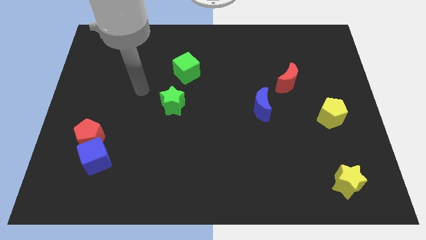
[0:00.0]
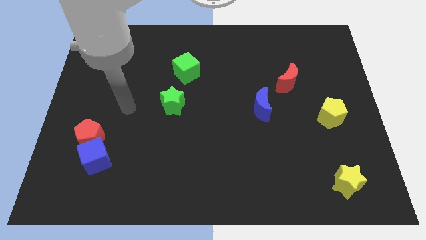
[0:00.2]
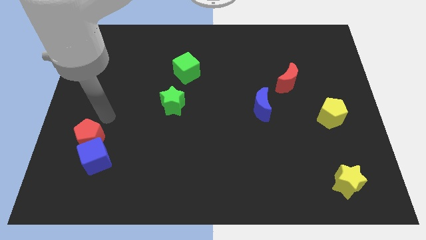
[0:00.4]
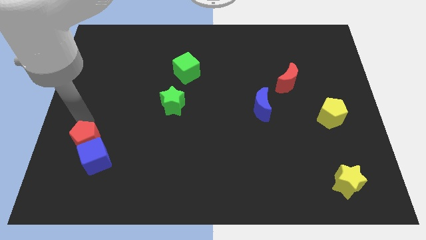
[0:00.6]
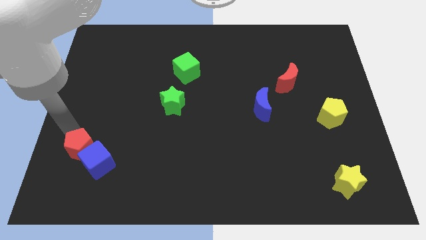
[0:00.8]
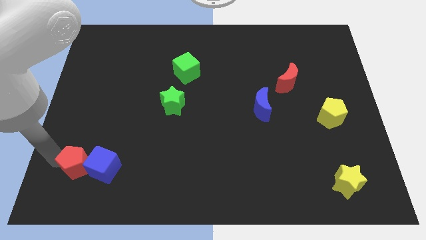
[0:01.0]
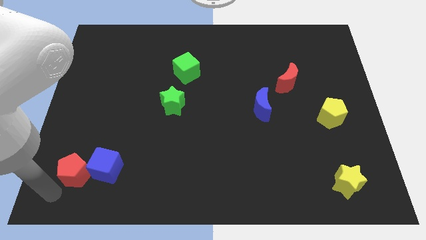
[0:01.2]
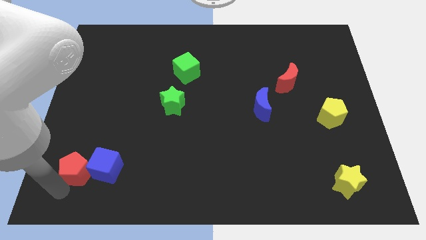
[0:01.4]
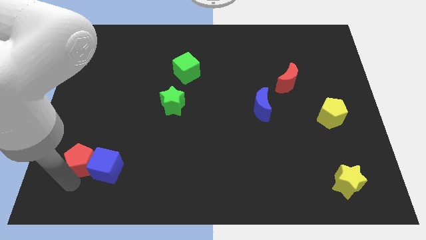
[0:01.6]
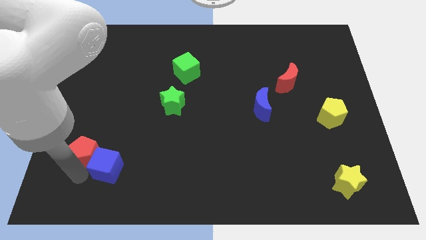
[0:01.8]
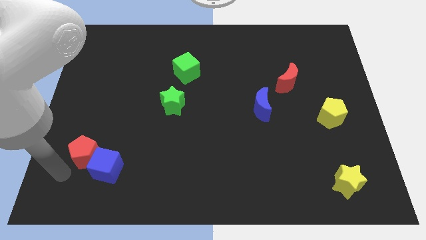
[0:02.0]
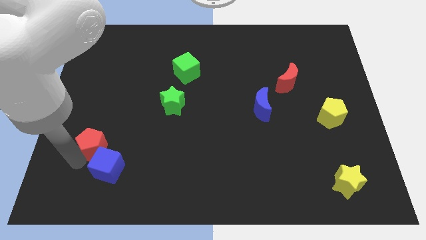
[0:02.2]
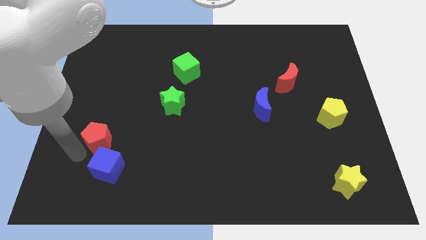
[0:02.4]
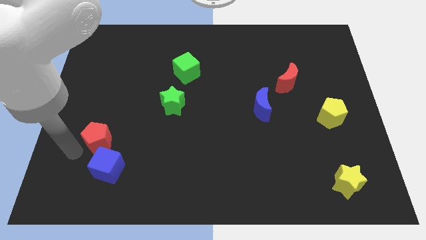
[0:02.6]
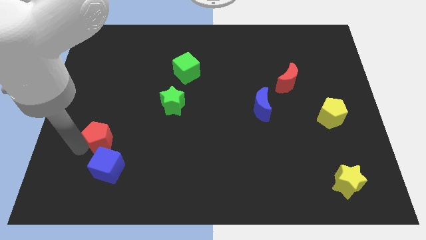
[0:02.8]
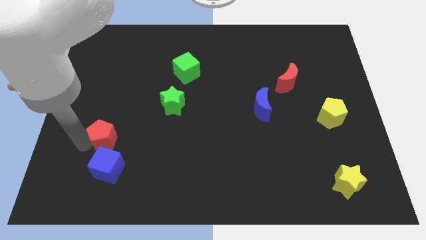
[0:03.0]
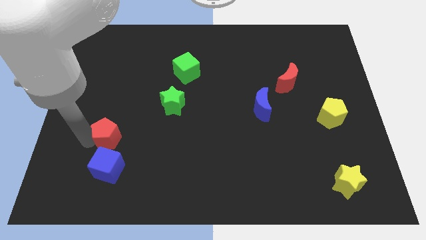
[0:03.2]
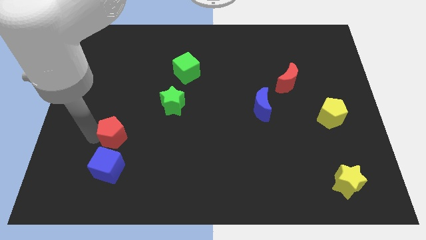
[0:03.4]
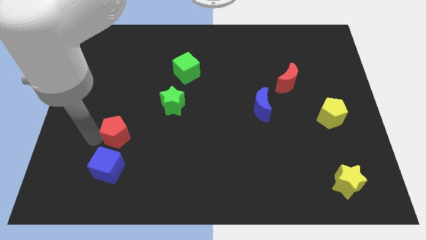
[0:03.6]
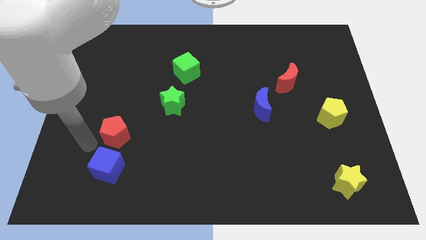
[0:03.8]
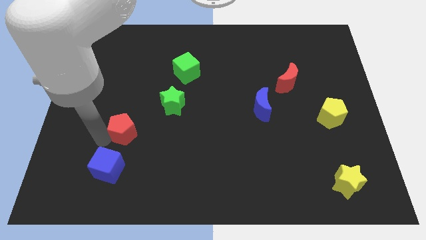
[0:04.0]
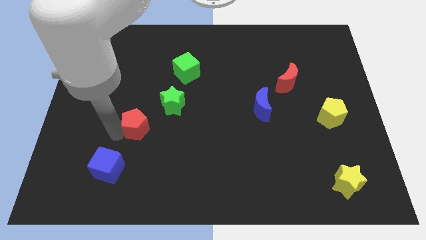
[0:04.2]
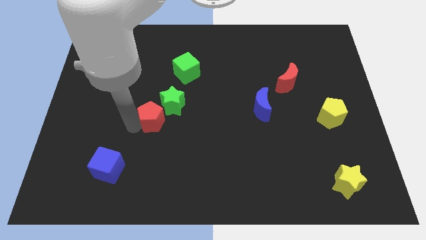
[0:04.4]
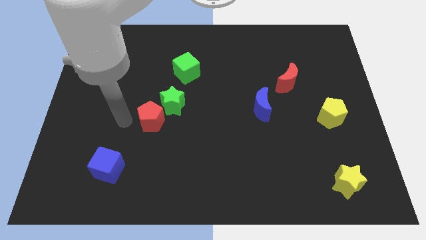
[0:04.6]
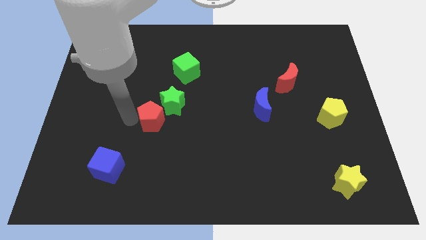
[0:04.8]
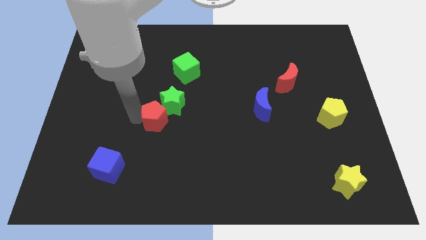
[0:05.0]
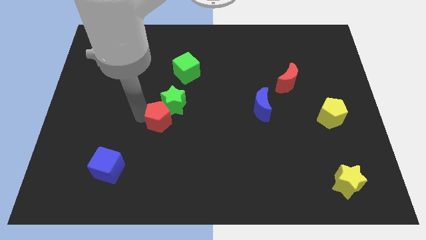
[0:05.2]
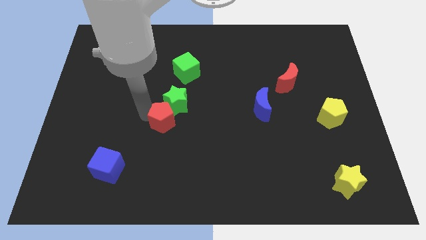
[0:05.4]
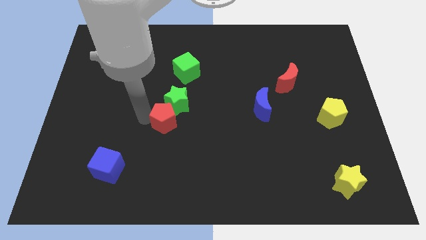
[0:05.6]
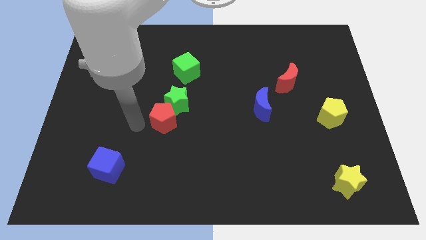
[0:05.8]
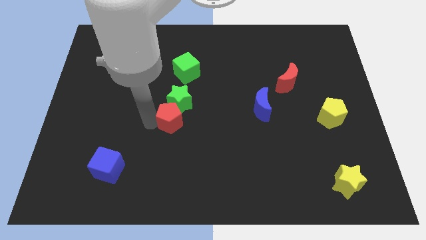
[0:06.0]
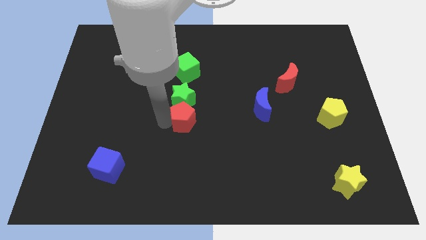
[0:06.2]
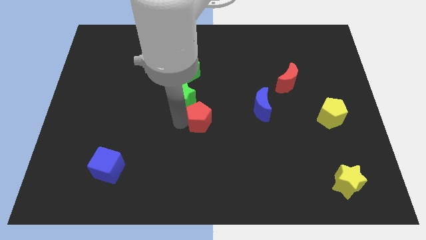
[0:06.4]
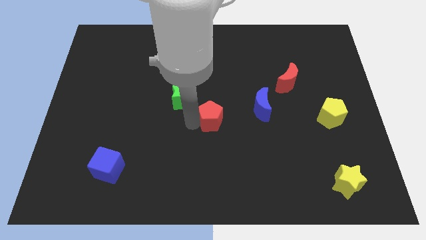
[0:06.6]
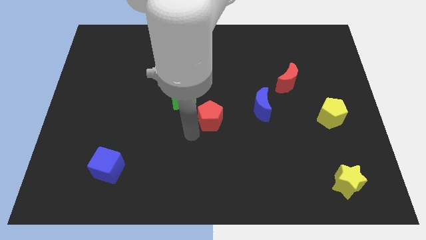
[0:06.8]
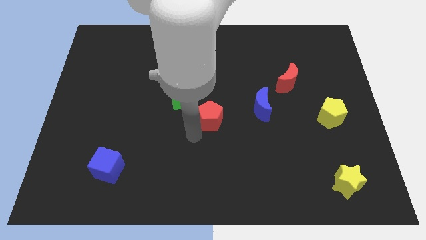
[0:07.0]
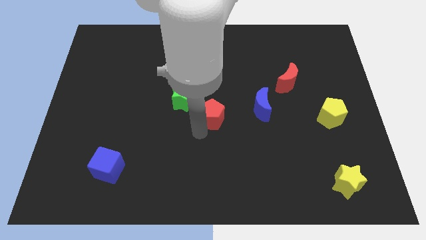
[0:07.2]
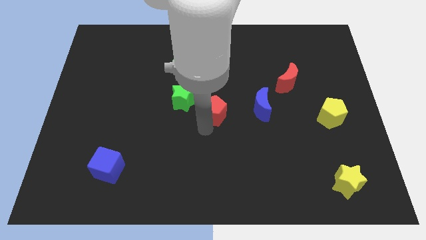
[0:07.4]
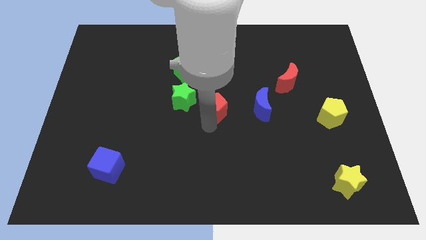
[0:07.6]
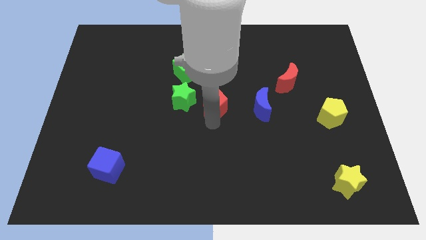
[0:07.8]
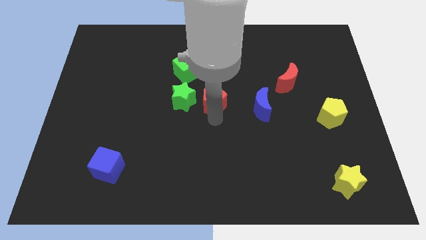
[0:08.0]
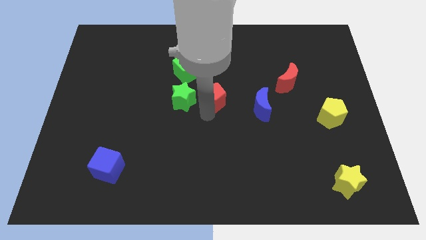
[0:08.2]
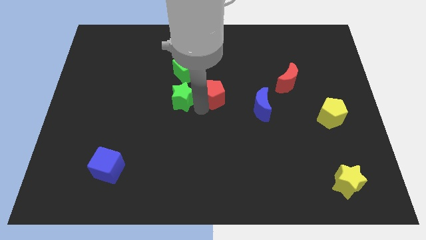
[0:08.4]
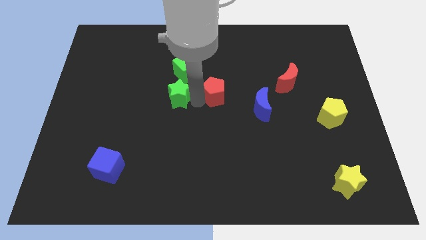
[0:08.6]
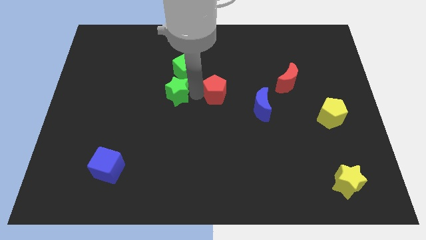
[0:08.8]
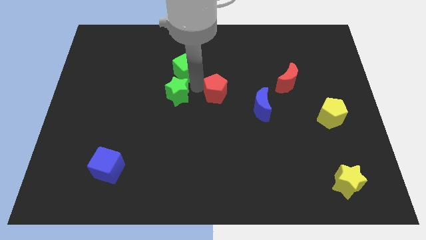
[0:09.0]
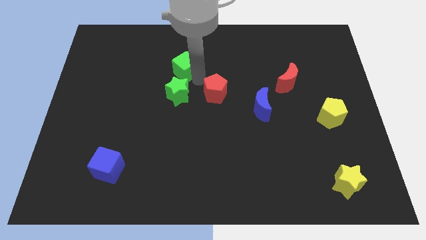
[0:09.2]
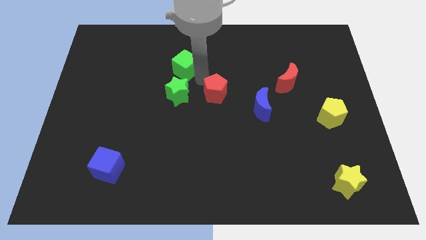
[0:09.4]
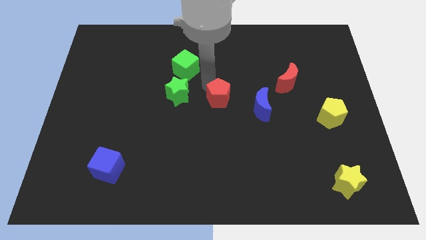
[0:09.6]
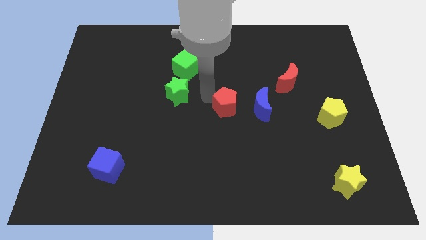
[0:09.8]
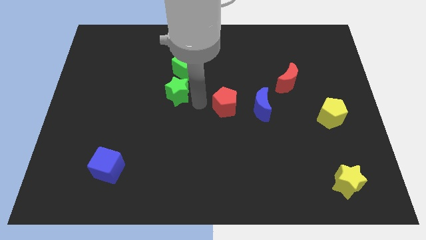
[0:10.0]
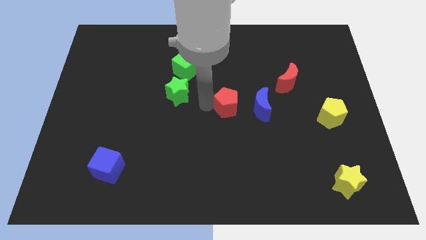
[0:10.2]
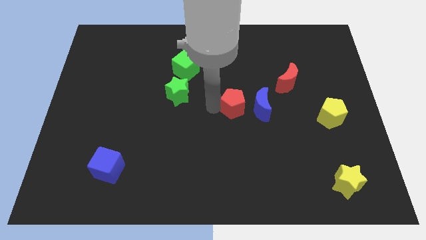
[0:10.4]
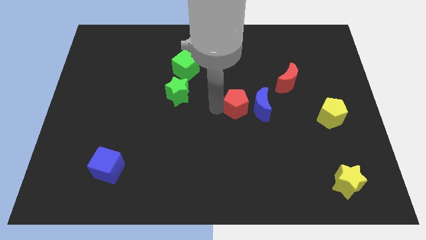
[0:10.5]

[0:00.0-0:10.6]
move the red pentagon close to the blue moon

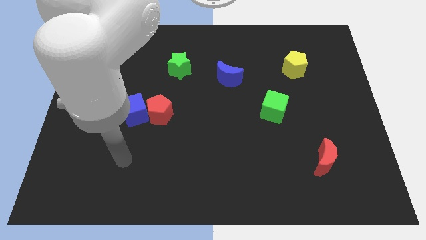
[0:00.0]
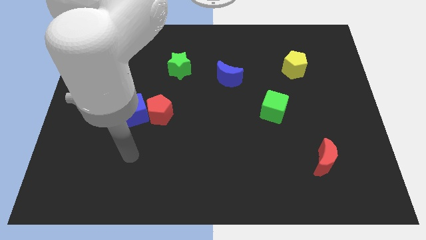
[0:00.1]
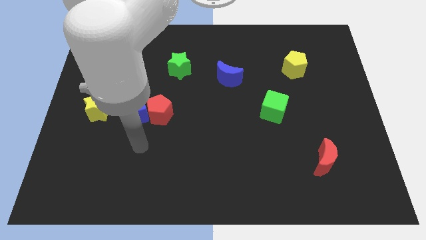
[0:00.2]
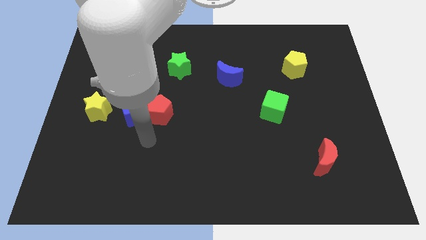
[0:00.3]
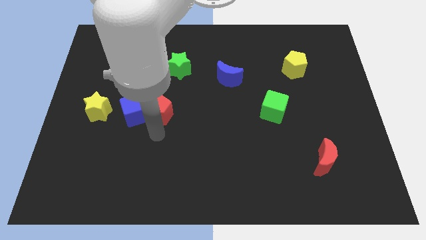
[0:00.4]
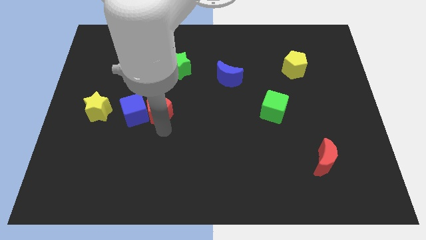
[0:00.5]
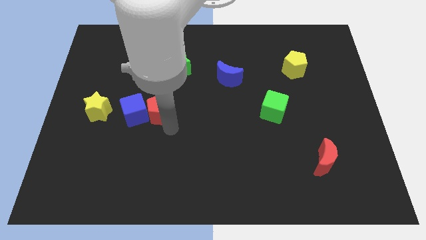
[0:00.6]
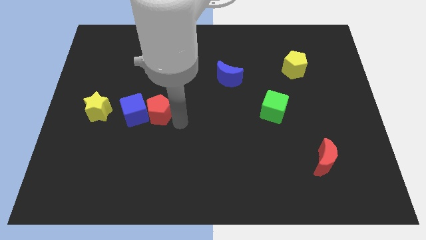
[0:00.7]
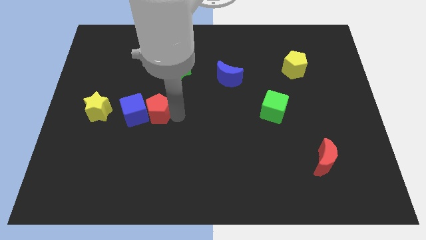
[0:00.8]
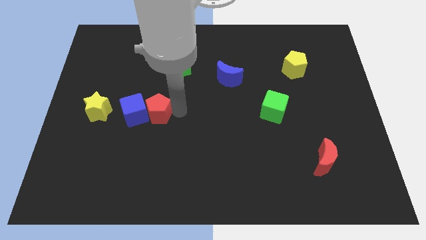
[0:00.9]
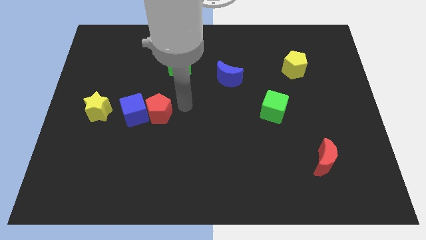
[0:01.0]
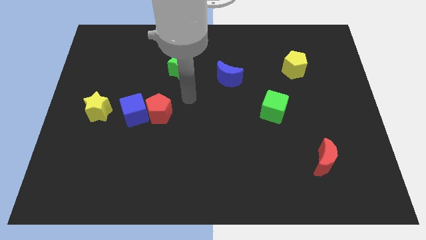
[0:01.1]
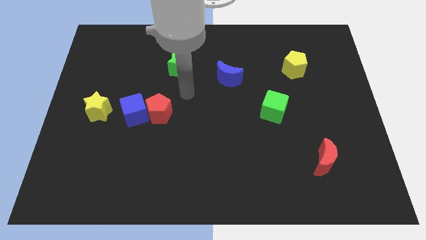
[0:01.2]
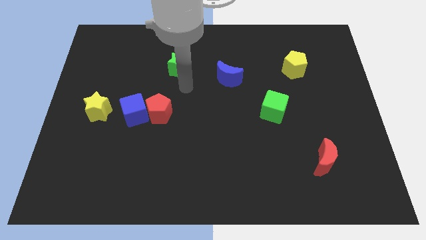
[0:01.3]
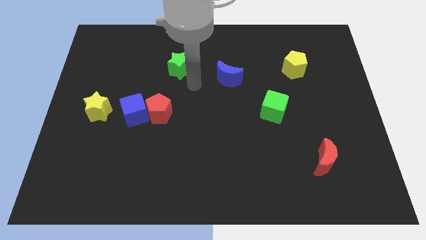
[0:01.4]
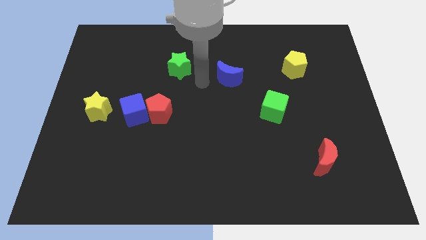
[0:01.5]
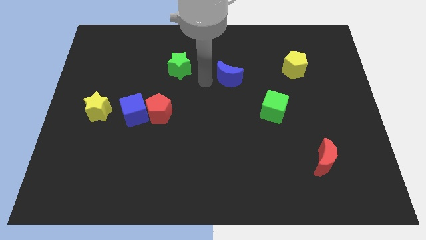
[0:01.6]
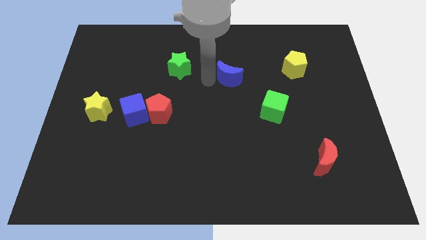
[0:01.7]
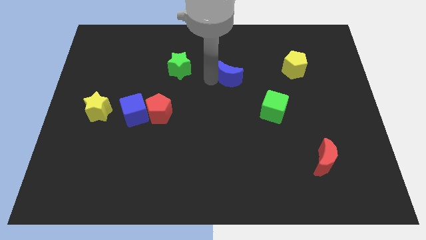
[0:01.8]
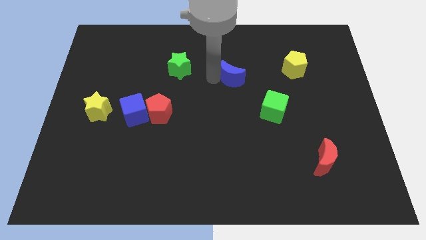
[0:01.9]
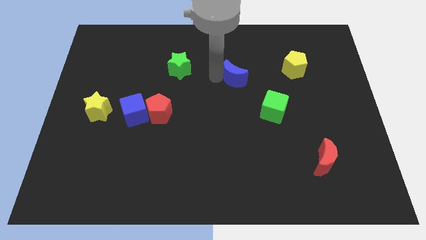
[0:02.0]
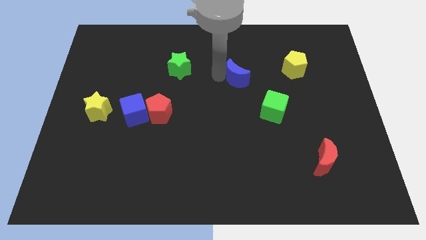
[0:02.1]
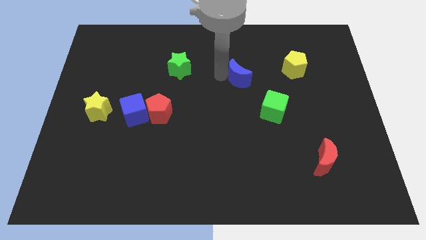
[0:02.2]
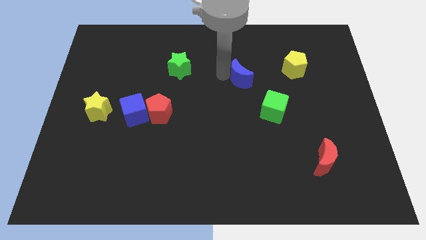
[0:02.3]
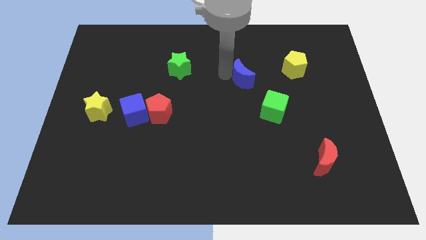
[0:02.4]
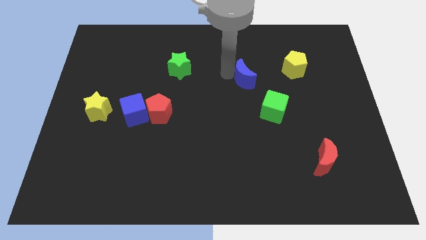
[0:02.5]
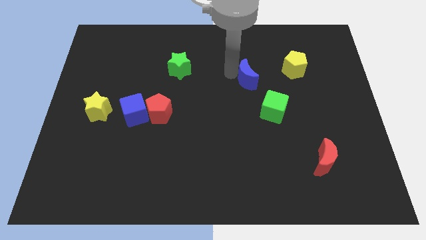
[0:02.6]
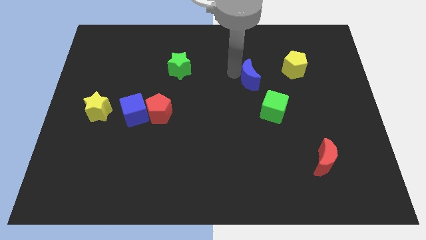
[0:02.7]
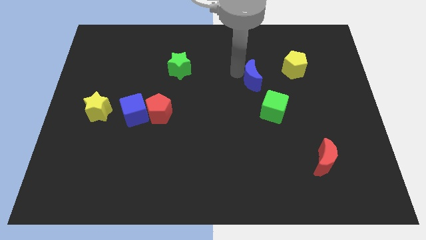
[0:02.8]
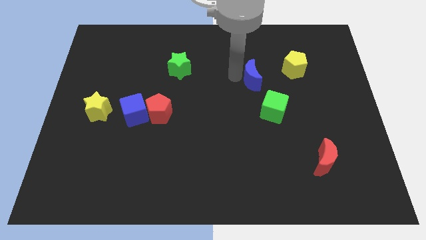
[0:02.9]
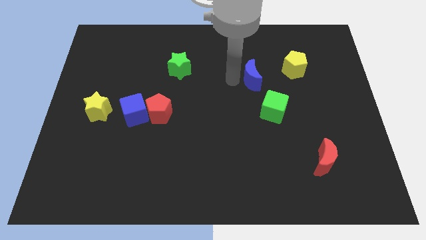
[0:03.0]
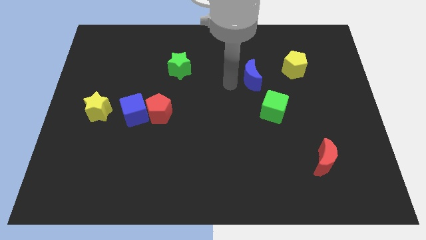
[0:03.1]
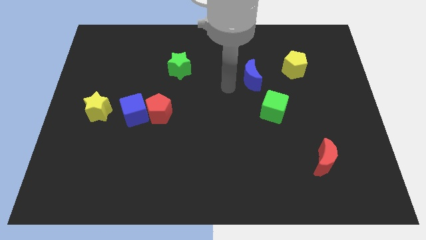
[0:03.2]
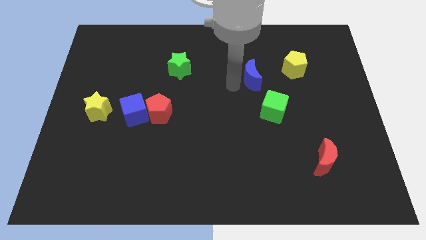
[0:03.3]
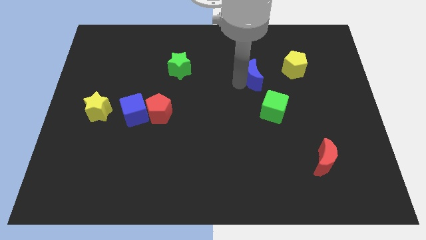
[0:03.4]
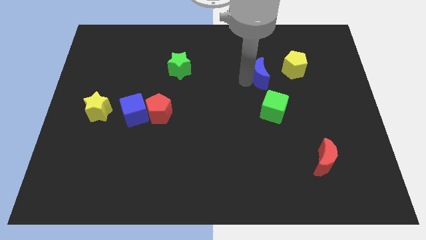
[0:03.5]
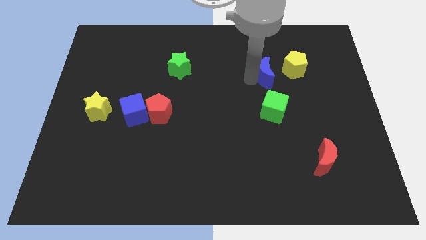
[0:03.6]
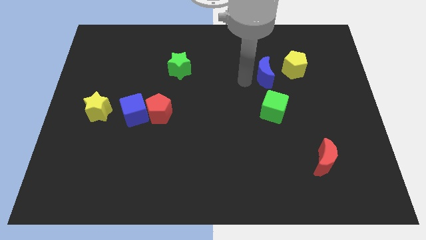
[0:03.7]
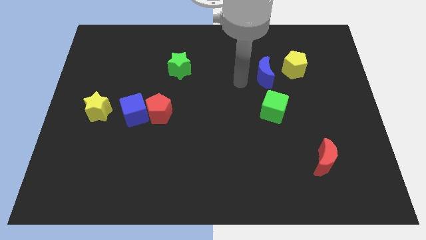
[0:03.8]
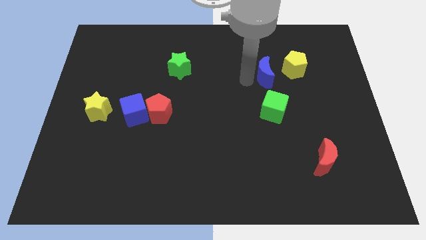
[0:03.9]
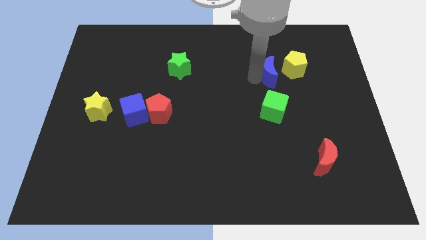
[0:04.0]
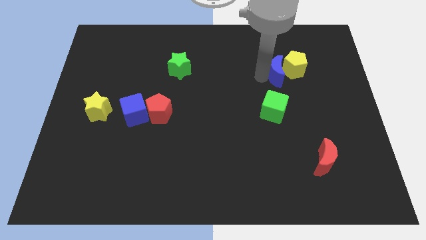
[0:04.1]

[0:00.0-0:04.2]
push the blue moon to the yellow pentagon
